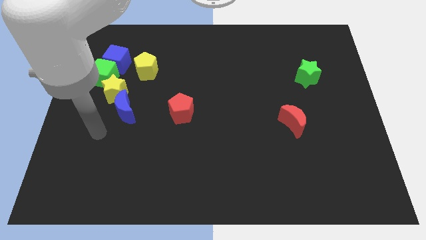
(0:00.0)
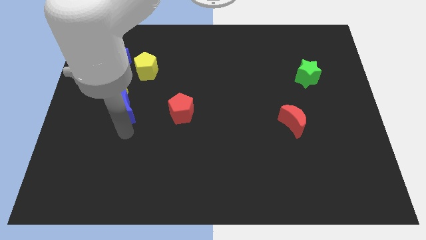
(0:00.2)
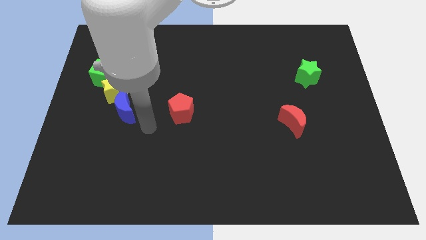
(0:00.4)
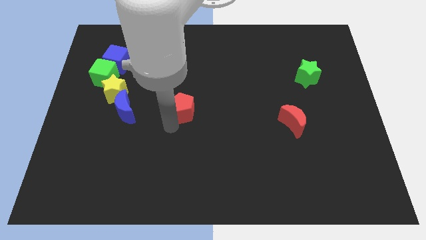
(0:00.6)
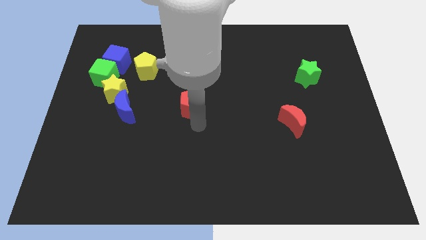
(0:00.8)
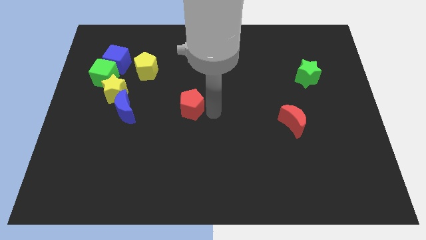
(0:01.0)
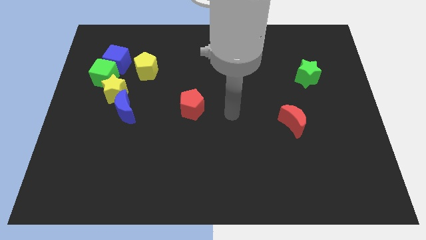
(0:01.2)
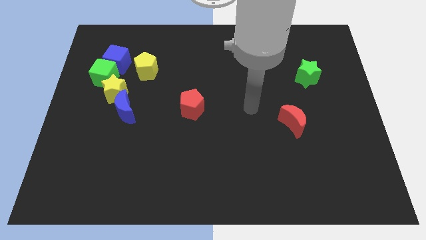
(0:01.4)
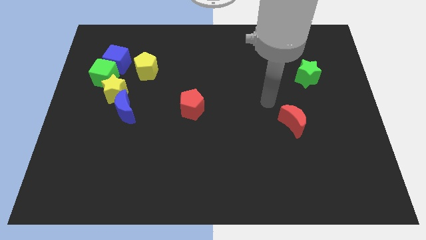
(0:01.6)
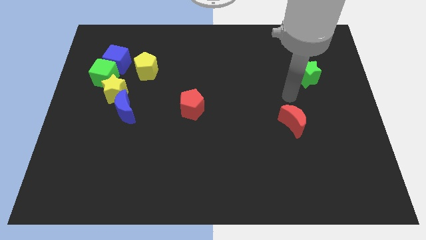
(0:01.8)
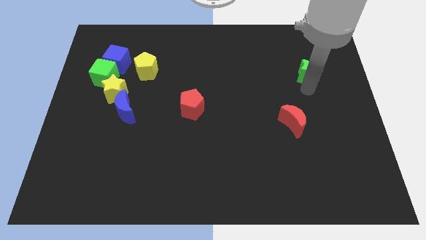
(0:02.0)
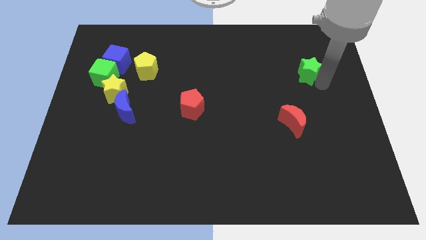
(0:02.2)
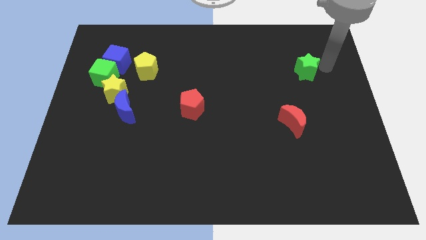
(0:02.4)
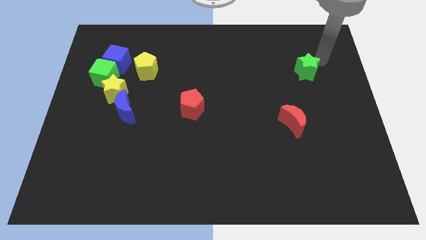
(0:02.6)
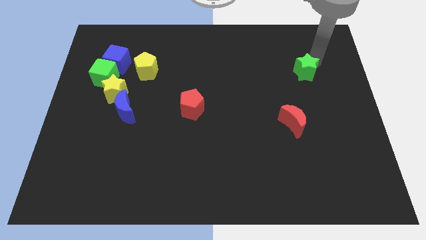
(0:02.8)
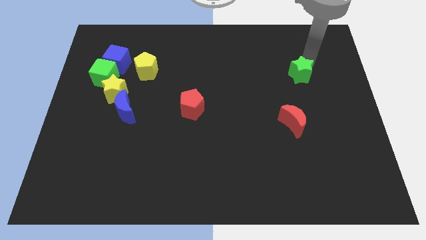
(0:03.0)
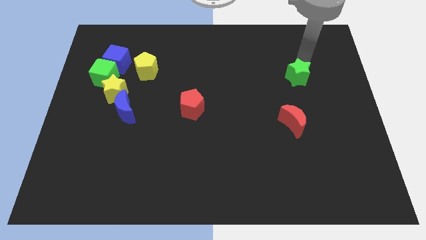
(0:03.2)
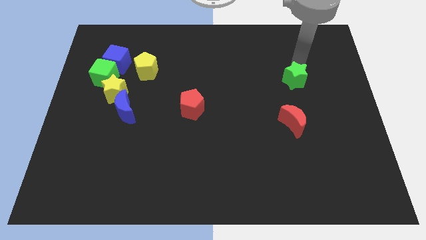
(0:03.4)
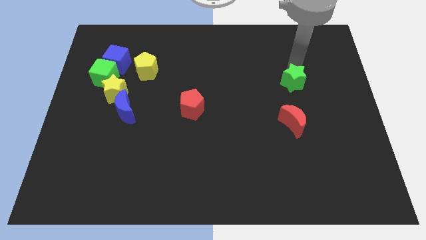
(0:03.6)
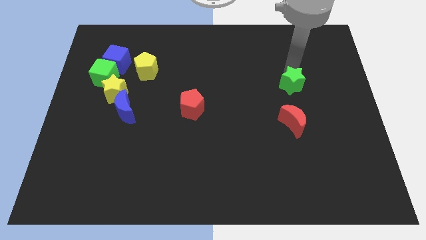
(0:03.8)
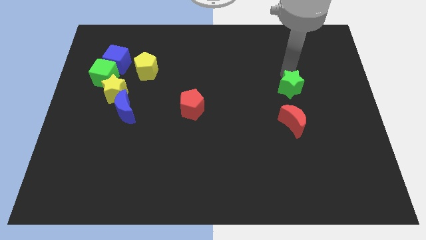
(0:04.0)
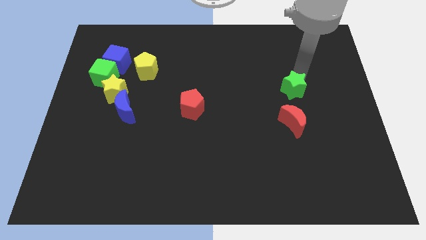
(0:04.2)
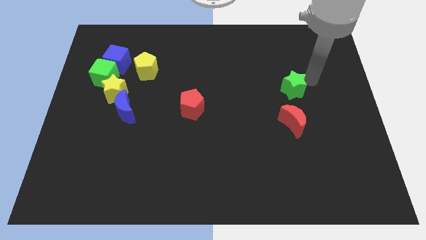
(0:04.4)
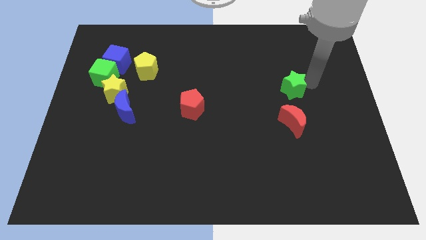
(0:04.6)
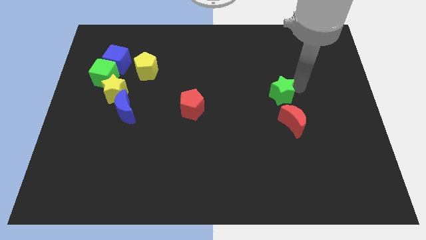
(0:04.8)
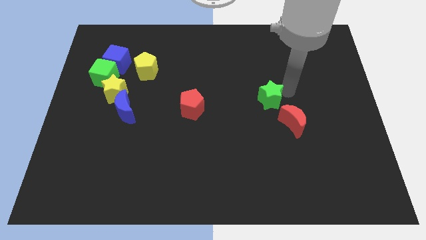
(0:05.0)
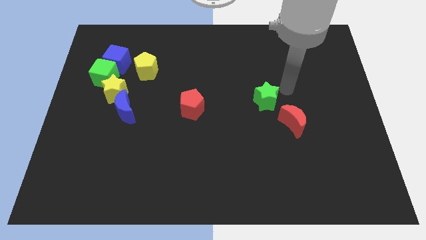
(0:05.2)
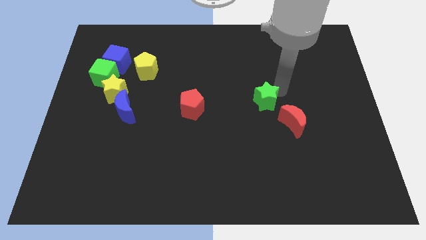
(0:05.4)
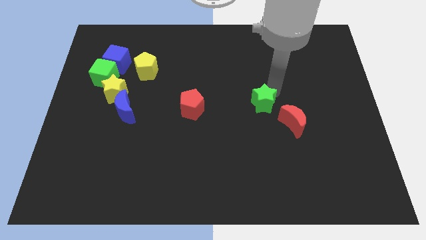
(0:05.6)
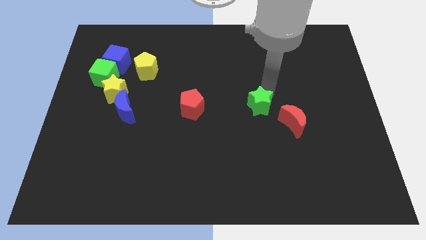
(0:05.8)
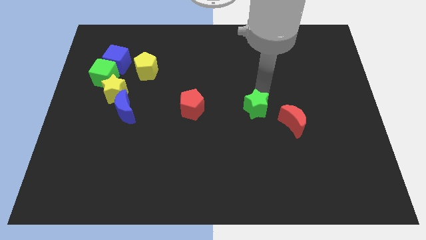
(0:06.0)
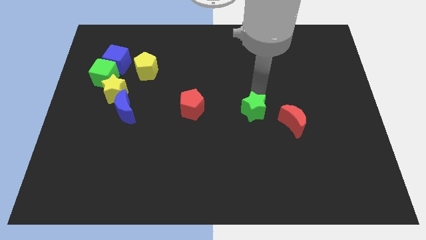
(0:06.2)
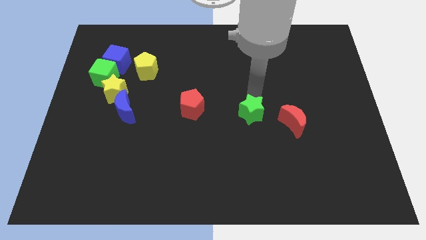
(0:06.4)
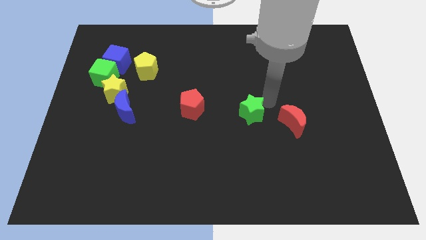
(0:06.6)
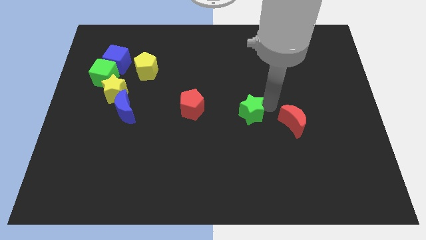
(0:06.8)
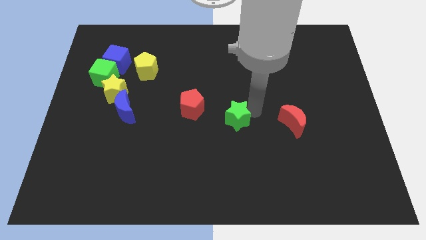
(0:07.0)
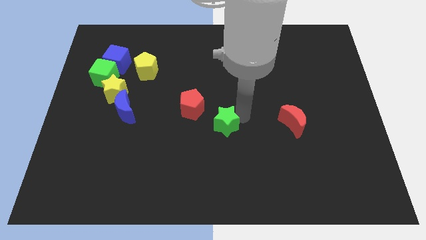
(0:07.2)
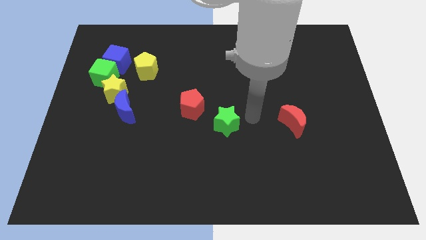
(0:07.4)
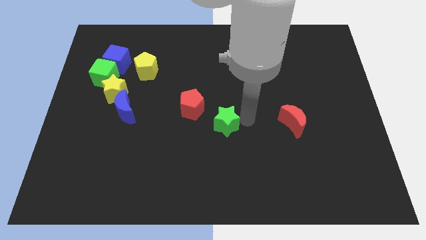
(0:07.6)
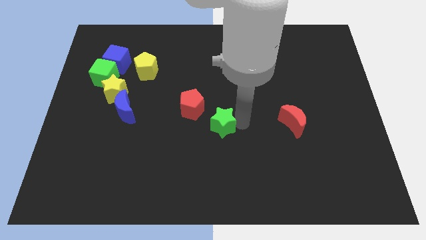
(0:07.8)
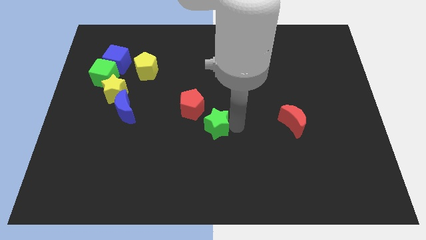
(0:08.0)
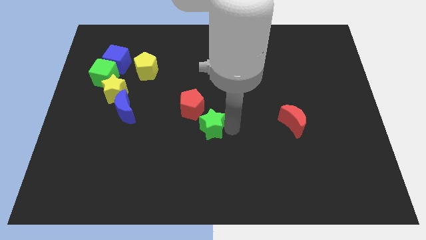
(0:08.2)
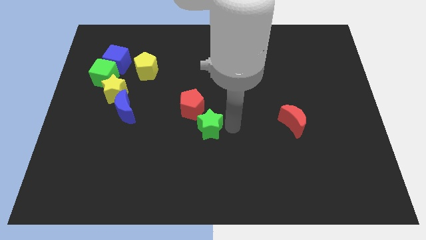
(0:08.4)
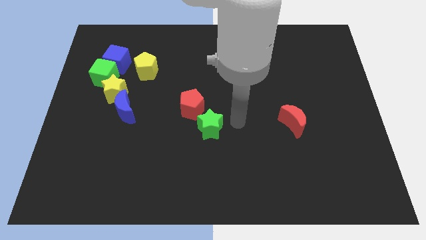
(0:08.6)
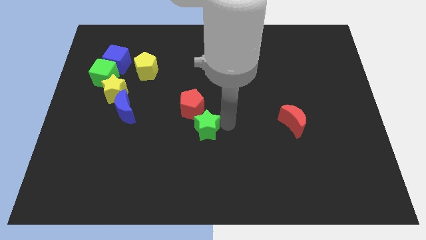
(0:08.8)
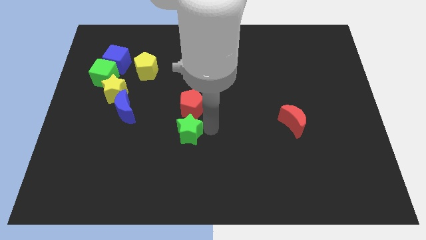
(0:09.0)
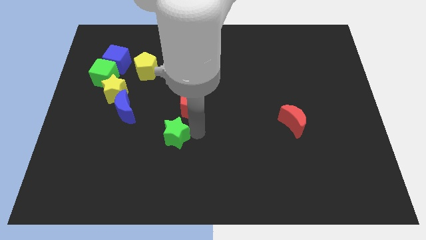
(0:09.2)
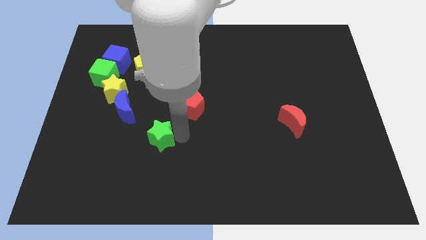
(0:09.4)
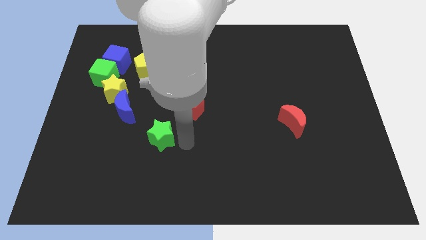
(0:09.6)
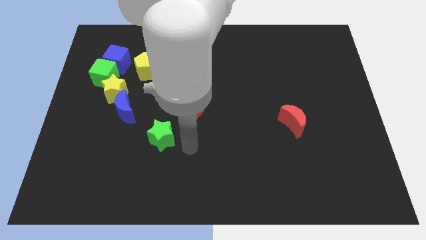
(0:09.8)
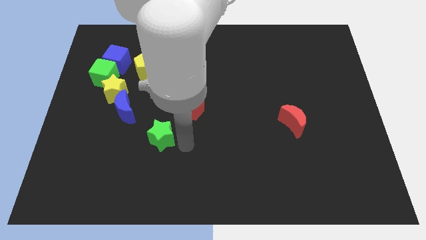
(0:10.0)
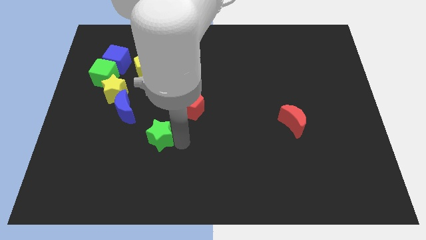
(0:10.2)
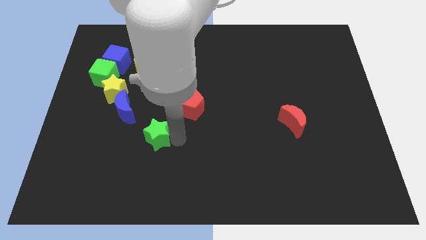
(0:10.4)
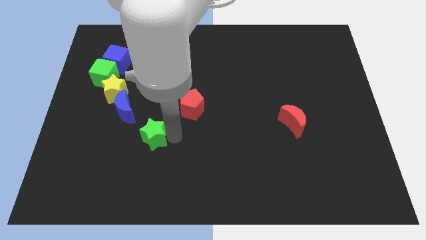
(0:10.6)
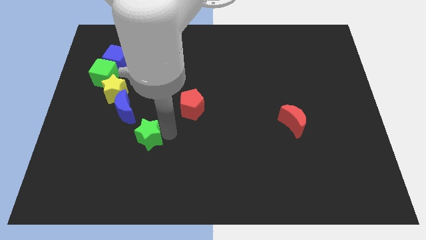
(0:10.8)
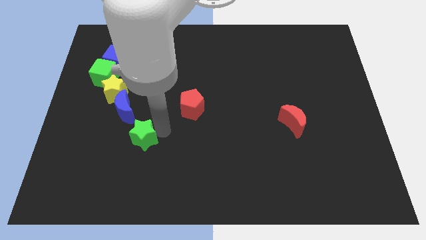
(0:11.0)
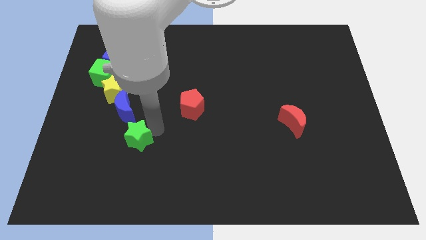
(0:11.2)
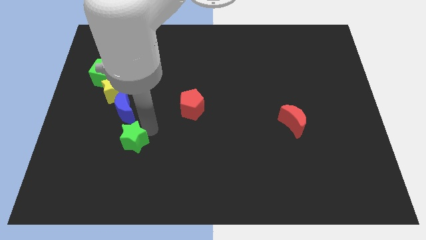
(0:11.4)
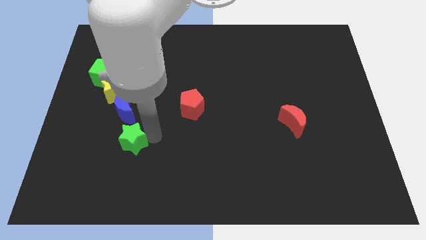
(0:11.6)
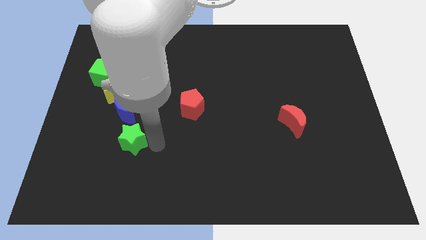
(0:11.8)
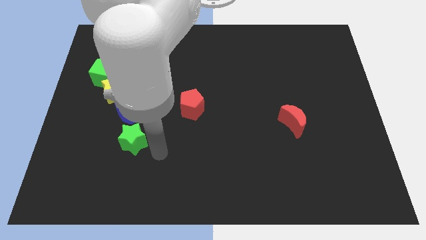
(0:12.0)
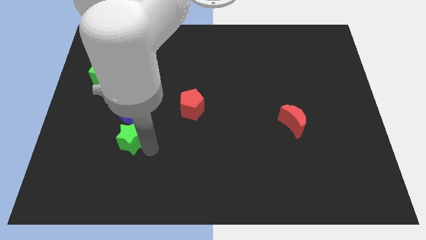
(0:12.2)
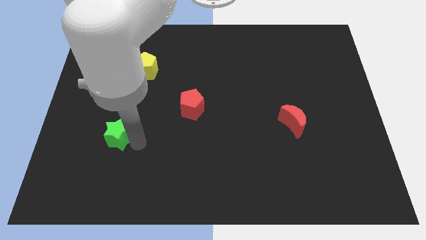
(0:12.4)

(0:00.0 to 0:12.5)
push the green star diagonally down and to the left of the blue moon

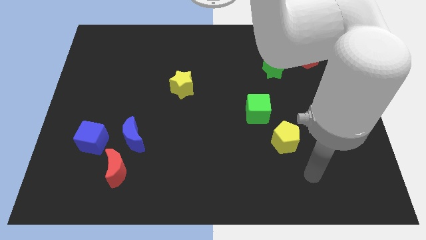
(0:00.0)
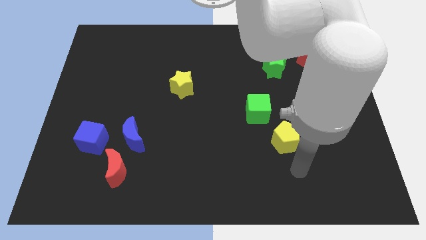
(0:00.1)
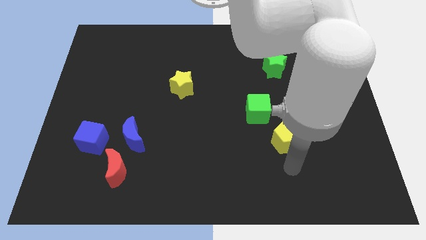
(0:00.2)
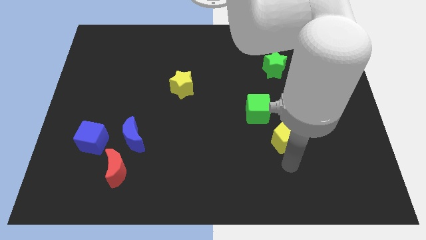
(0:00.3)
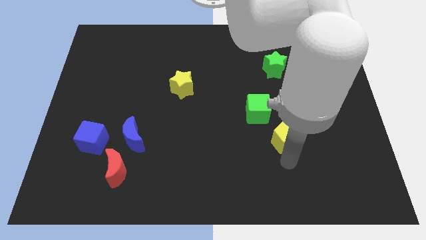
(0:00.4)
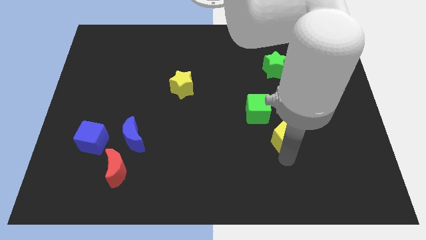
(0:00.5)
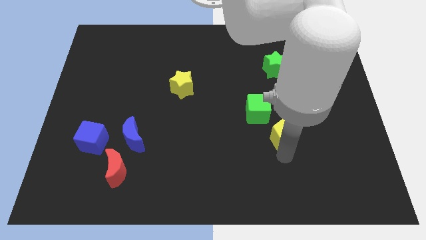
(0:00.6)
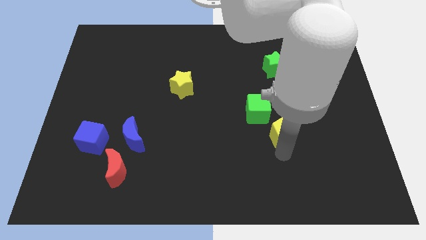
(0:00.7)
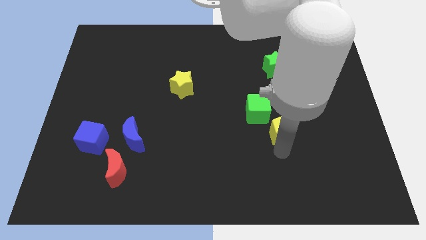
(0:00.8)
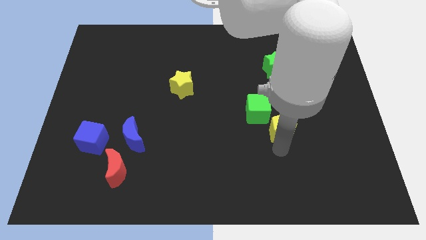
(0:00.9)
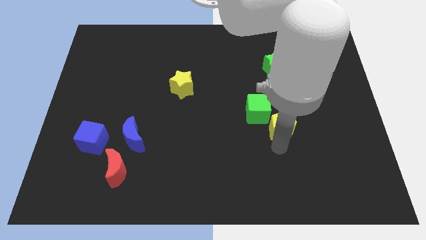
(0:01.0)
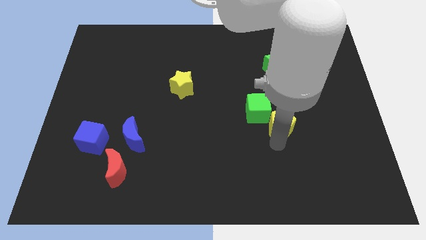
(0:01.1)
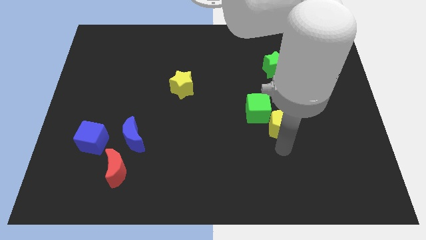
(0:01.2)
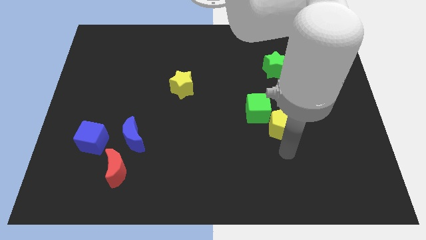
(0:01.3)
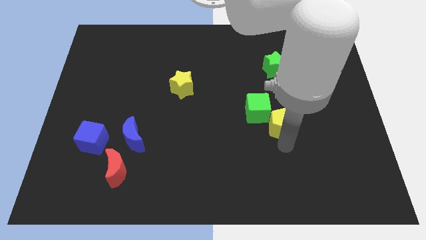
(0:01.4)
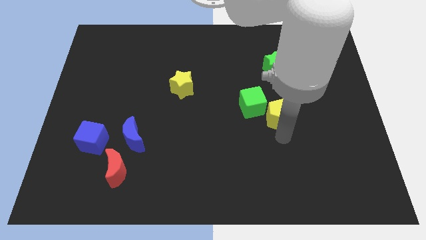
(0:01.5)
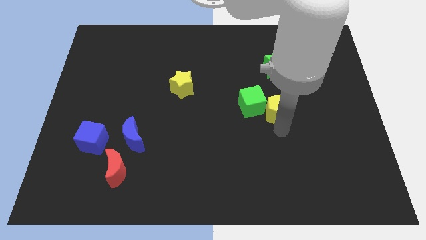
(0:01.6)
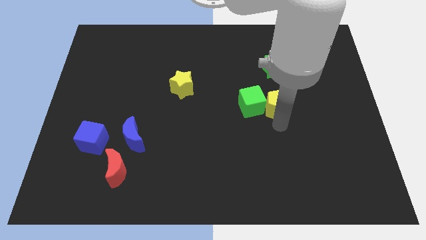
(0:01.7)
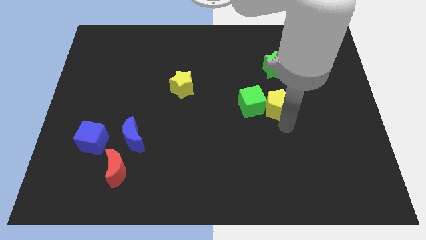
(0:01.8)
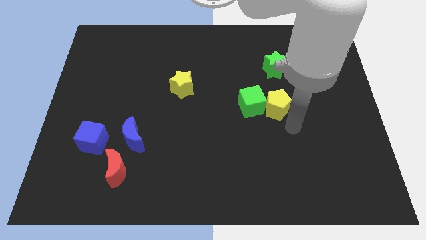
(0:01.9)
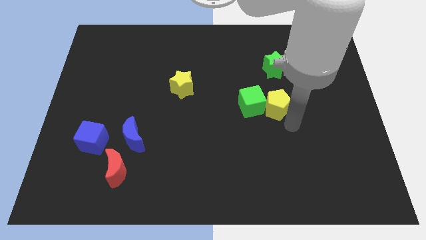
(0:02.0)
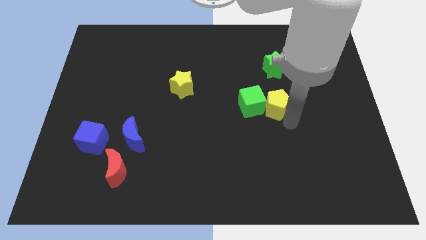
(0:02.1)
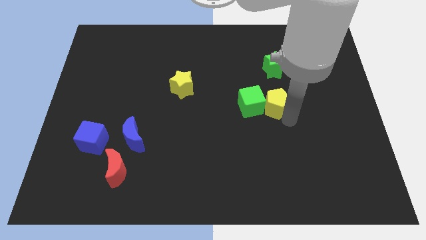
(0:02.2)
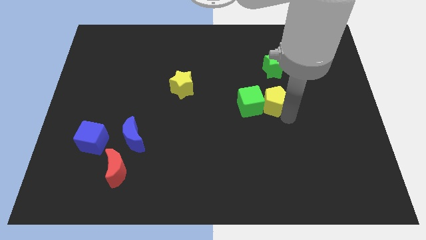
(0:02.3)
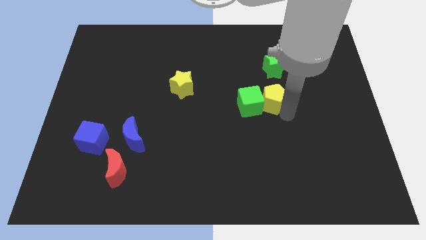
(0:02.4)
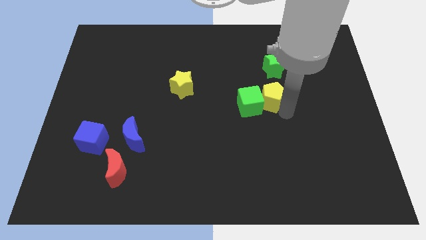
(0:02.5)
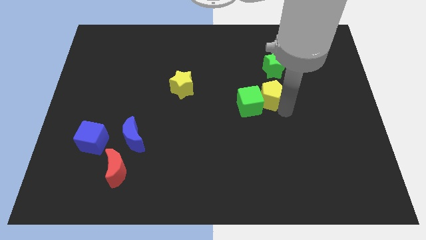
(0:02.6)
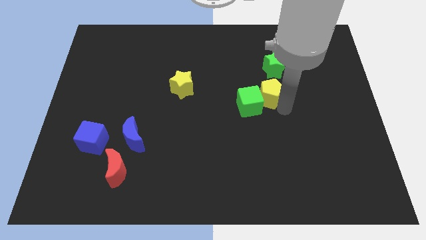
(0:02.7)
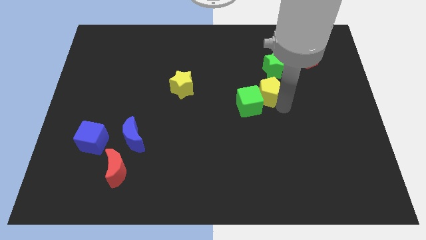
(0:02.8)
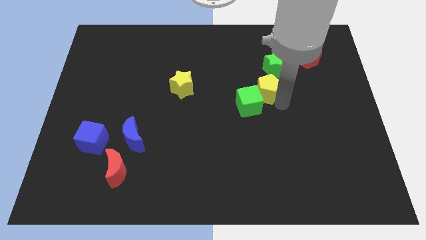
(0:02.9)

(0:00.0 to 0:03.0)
push the yellow pentagon to the top of the green cube
